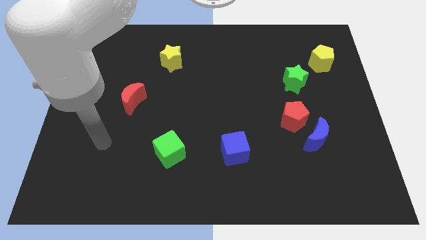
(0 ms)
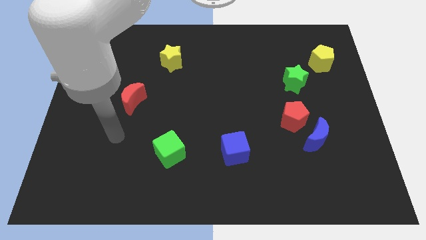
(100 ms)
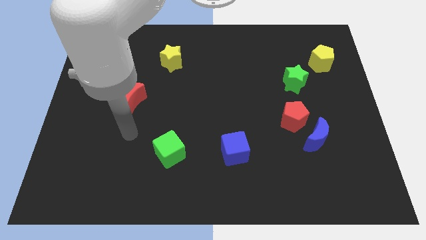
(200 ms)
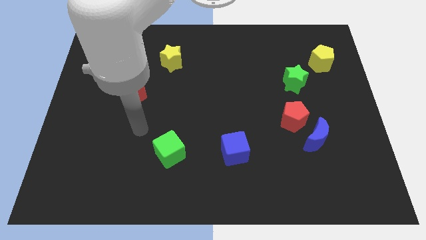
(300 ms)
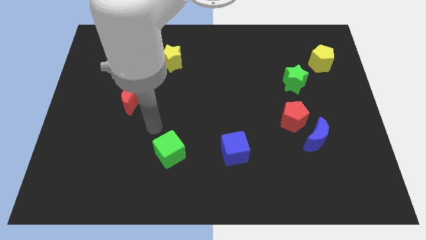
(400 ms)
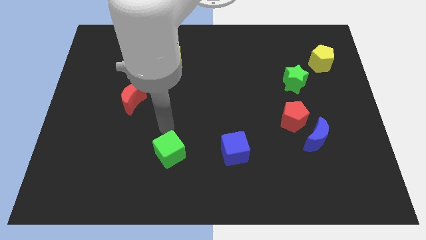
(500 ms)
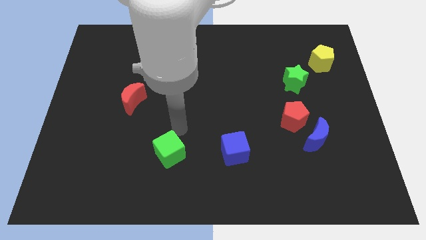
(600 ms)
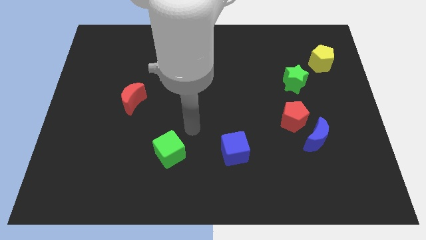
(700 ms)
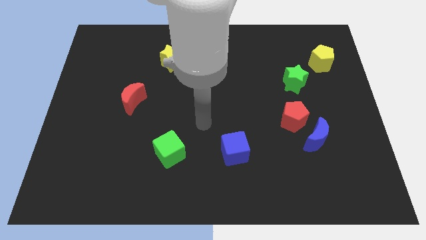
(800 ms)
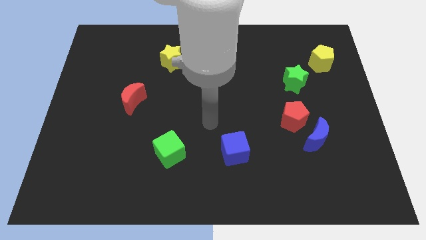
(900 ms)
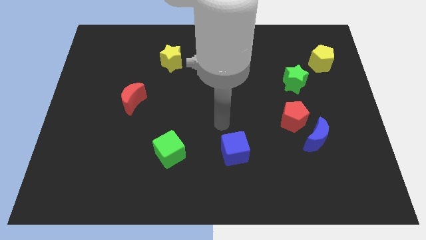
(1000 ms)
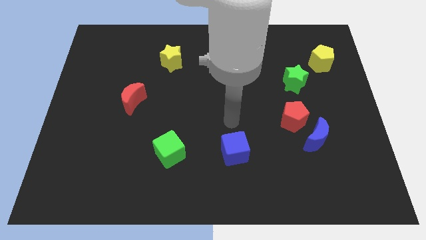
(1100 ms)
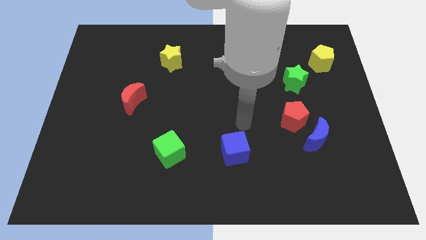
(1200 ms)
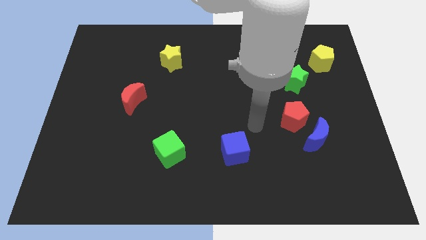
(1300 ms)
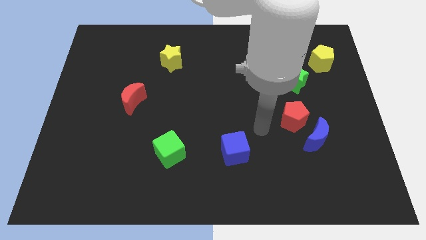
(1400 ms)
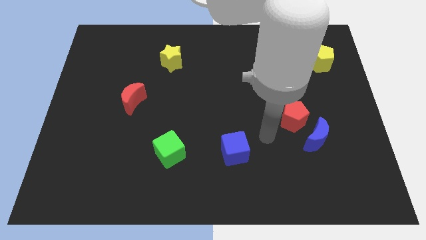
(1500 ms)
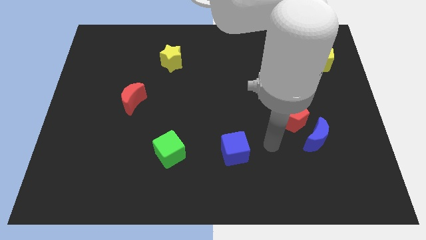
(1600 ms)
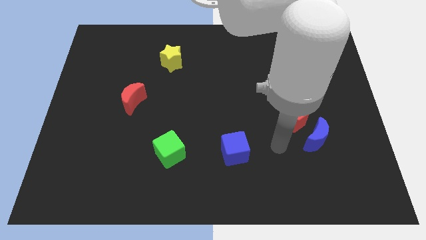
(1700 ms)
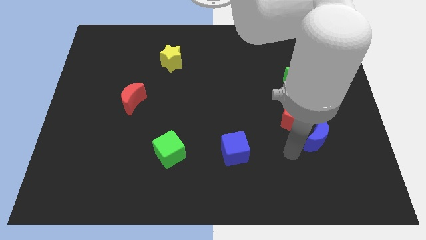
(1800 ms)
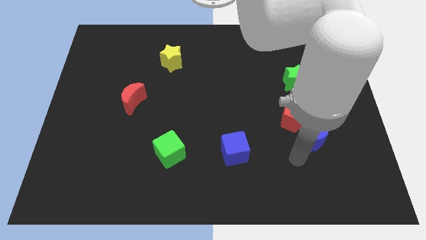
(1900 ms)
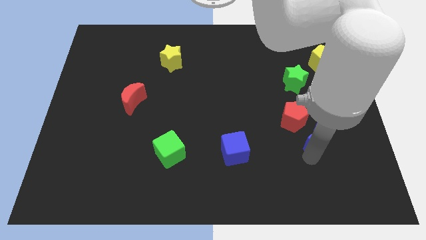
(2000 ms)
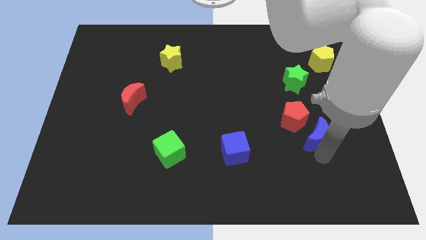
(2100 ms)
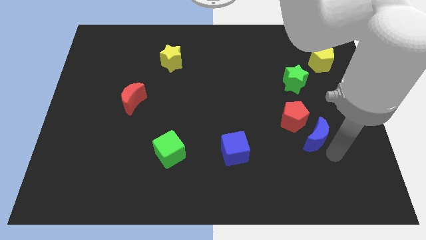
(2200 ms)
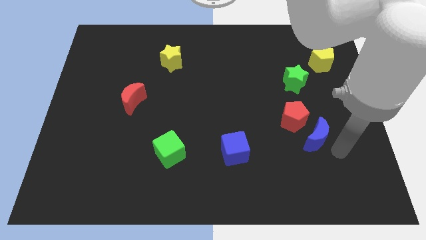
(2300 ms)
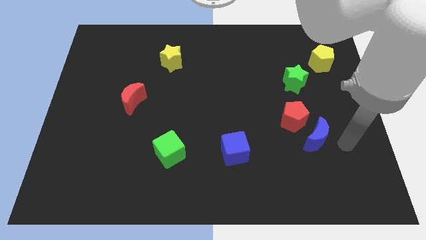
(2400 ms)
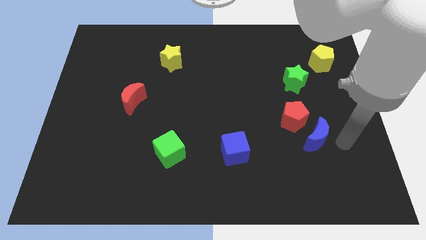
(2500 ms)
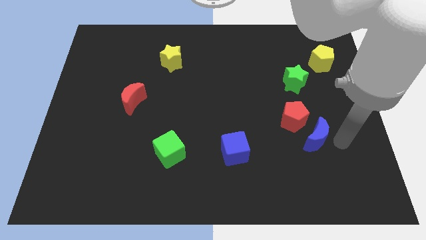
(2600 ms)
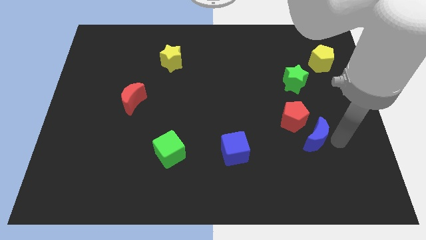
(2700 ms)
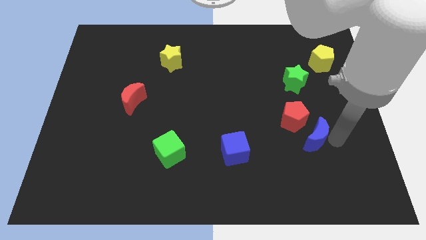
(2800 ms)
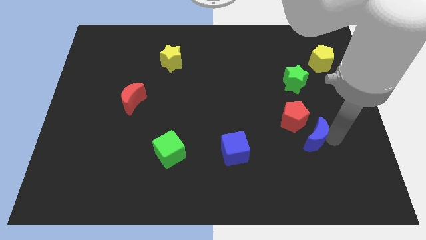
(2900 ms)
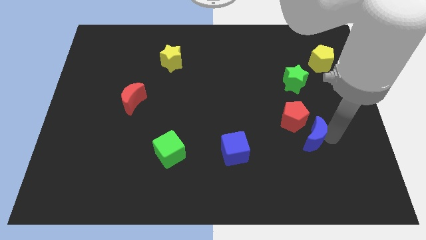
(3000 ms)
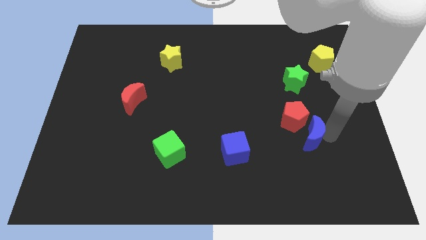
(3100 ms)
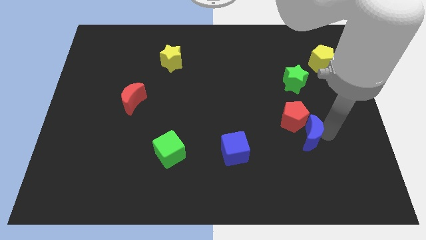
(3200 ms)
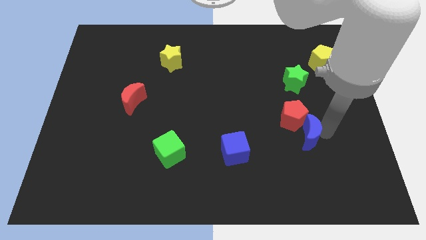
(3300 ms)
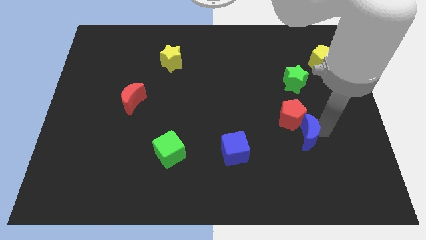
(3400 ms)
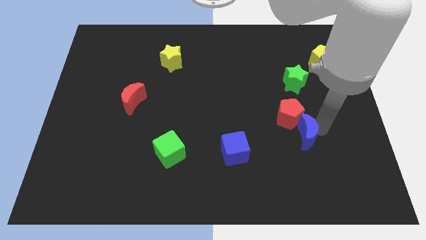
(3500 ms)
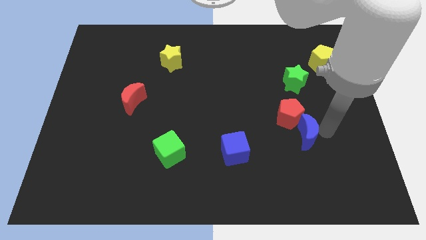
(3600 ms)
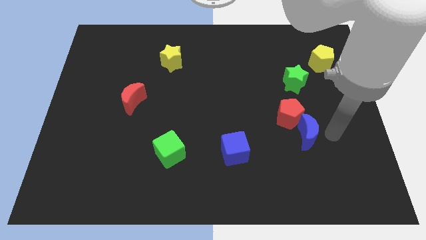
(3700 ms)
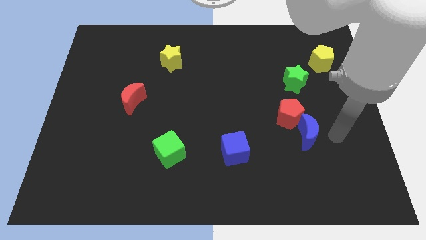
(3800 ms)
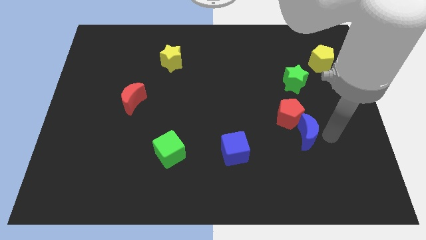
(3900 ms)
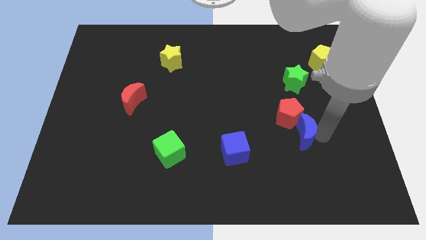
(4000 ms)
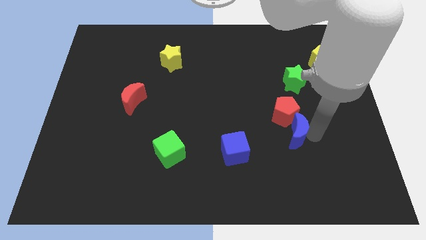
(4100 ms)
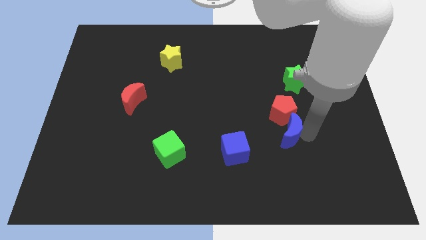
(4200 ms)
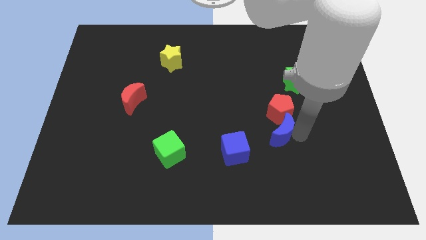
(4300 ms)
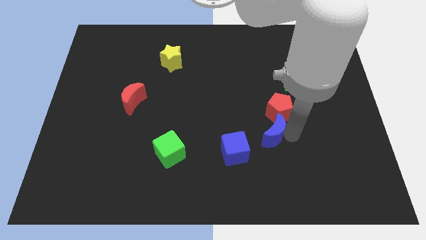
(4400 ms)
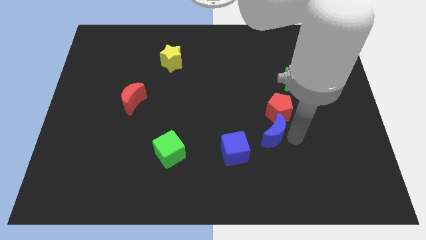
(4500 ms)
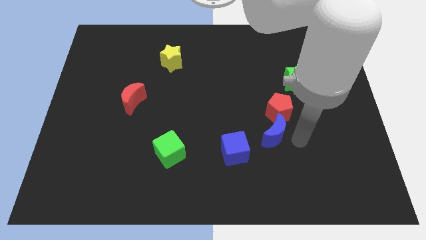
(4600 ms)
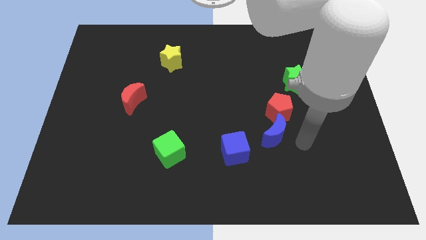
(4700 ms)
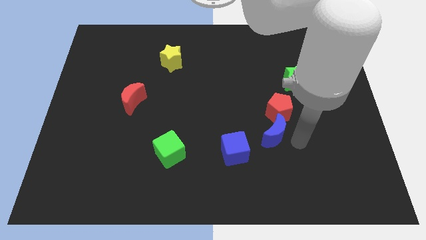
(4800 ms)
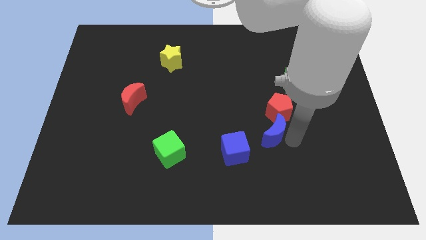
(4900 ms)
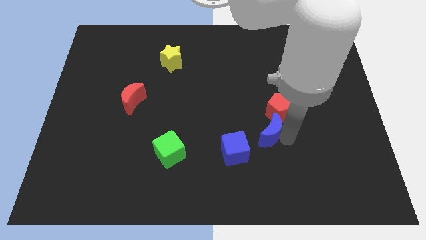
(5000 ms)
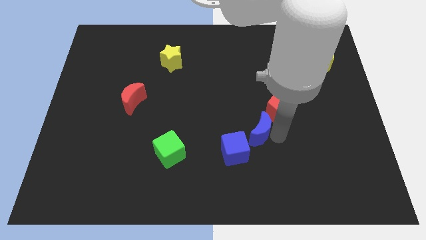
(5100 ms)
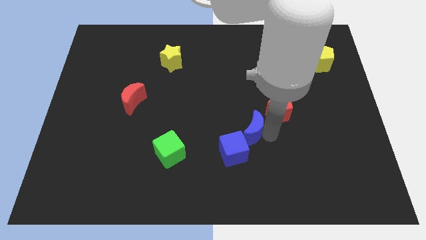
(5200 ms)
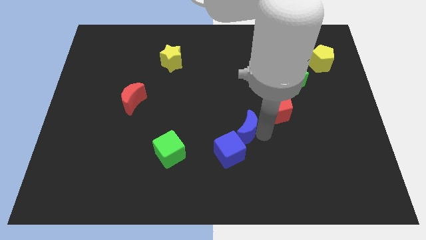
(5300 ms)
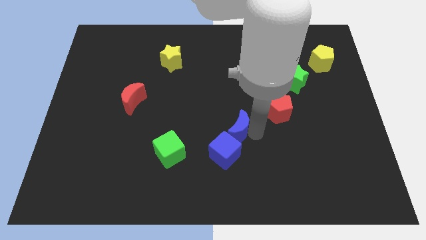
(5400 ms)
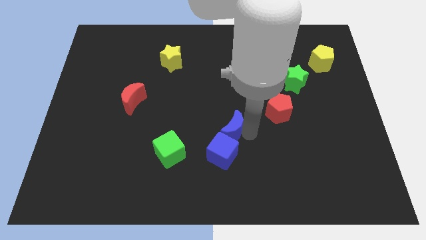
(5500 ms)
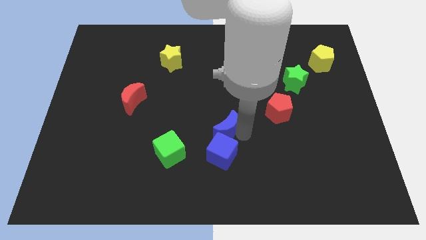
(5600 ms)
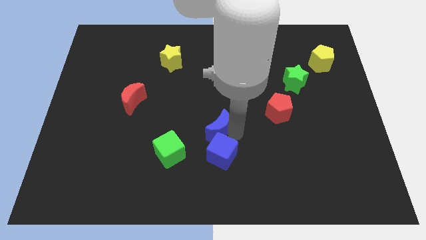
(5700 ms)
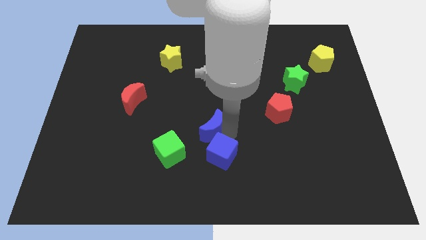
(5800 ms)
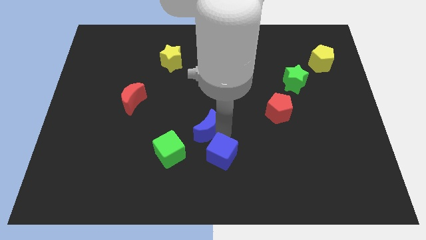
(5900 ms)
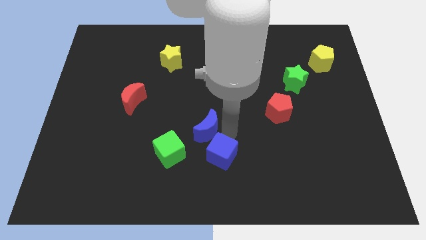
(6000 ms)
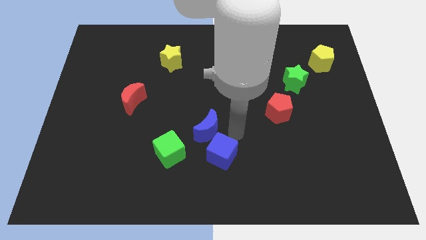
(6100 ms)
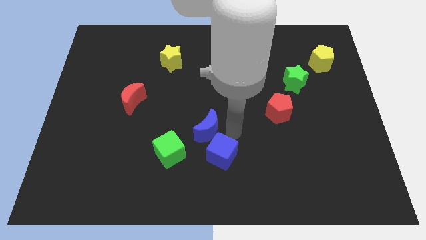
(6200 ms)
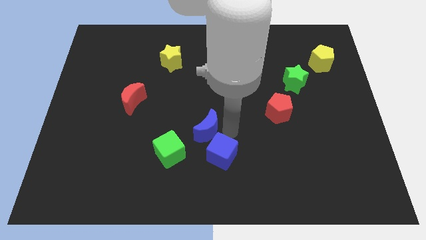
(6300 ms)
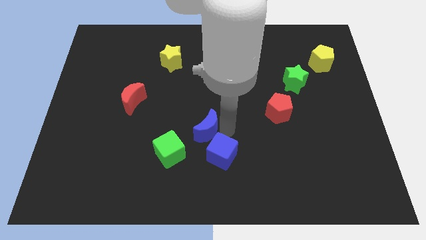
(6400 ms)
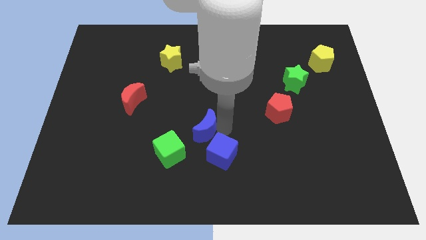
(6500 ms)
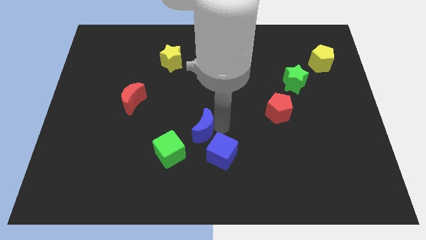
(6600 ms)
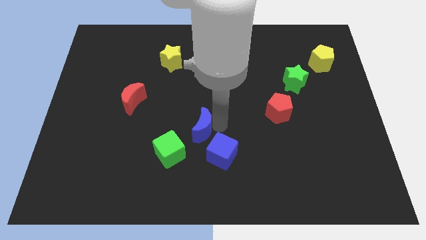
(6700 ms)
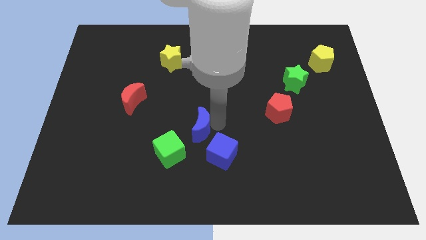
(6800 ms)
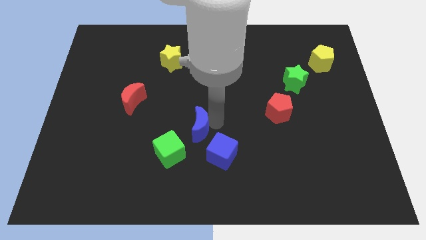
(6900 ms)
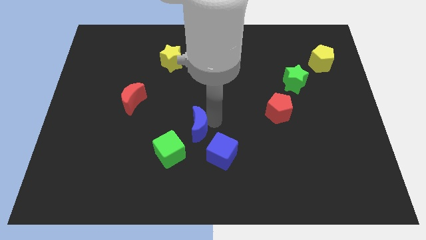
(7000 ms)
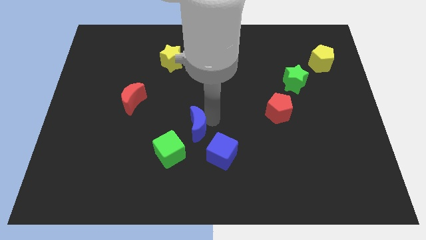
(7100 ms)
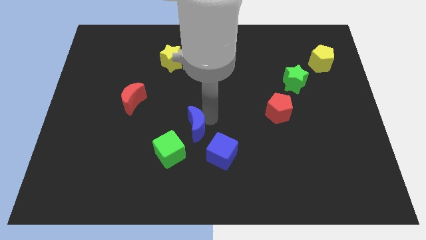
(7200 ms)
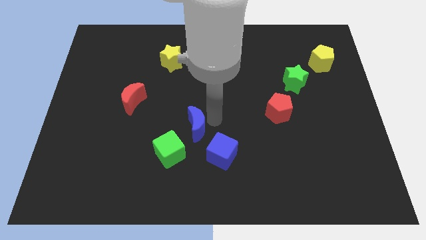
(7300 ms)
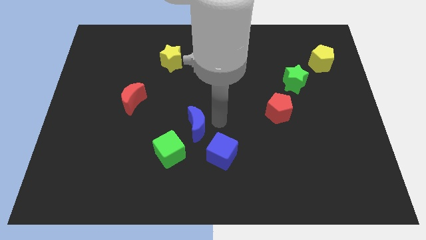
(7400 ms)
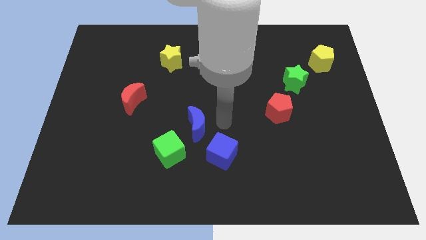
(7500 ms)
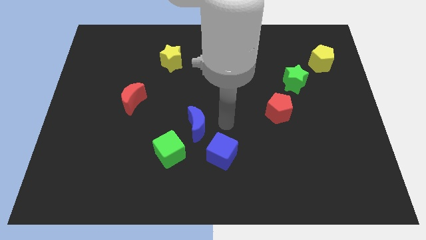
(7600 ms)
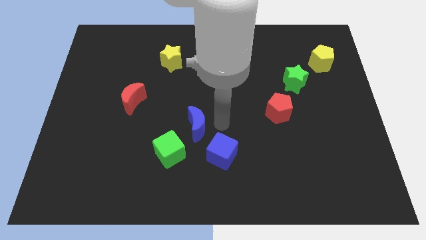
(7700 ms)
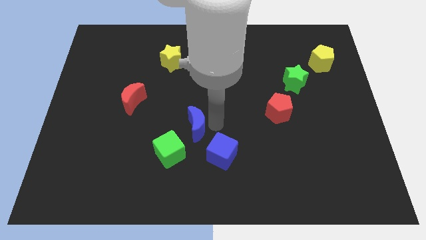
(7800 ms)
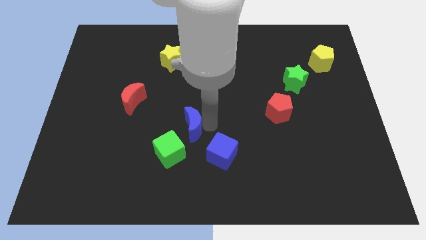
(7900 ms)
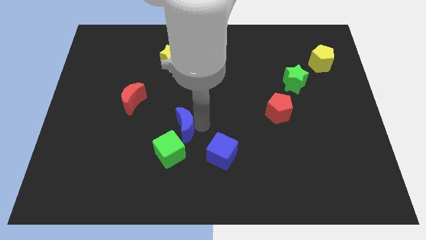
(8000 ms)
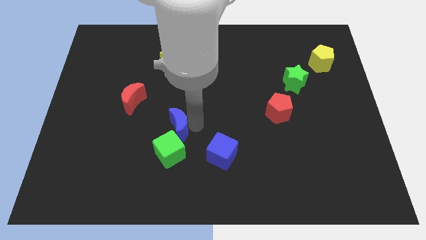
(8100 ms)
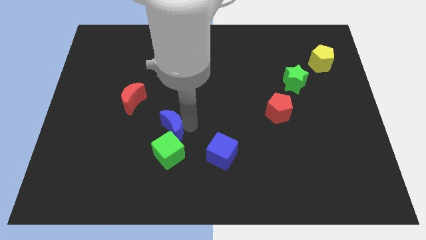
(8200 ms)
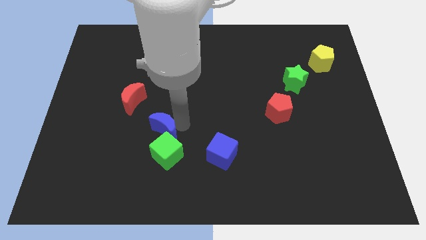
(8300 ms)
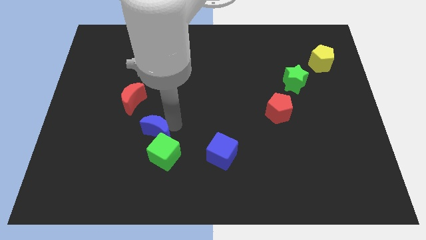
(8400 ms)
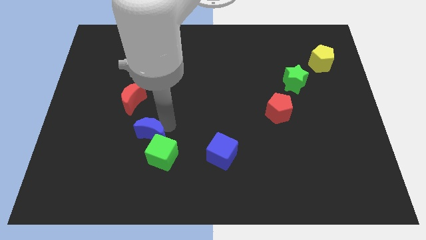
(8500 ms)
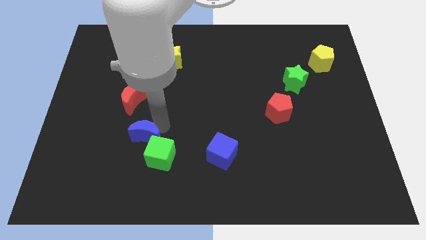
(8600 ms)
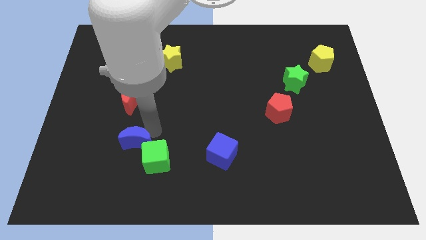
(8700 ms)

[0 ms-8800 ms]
push the blue moon to the left of the green cube
